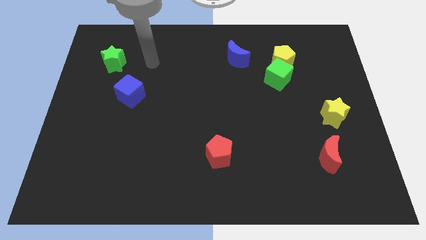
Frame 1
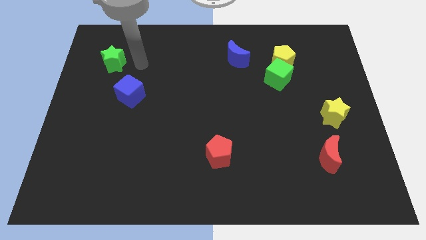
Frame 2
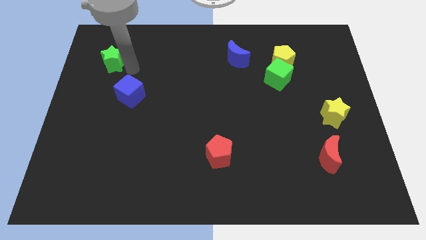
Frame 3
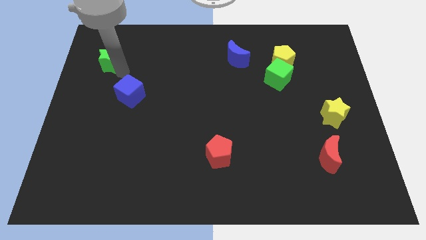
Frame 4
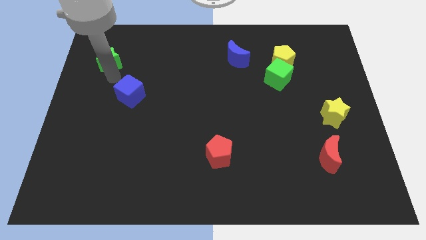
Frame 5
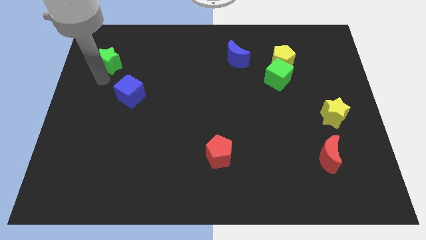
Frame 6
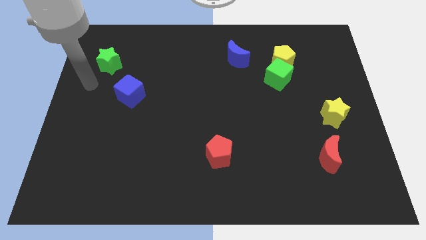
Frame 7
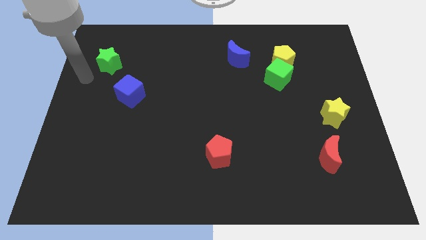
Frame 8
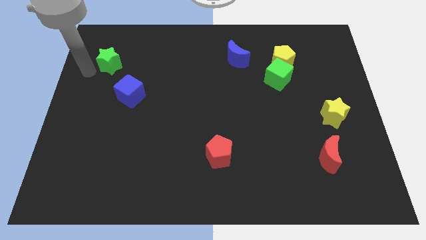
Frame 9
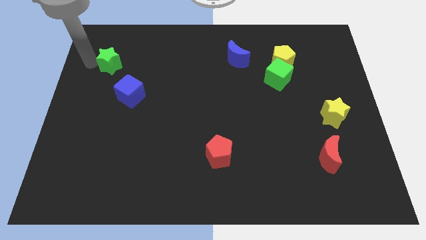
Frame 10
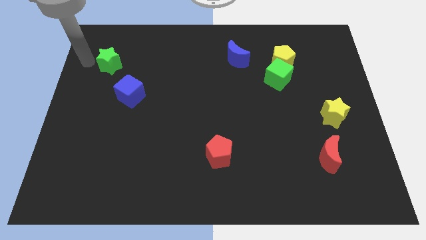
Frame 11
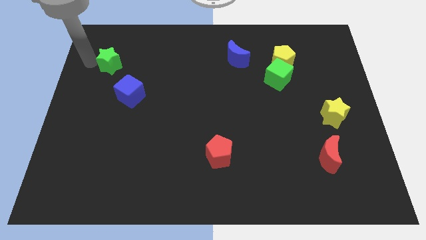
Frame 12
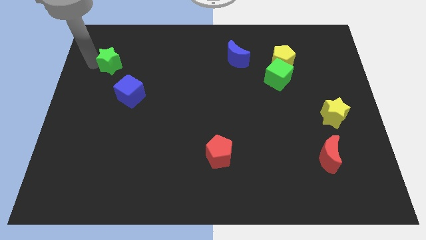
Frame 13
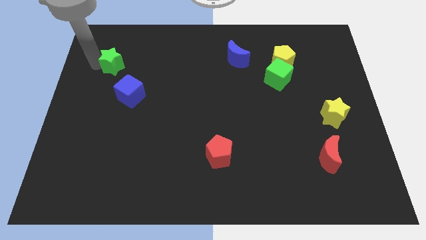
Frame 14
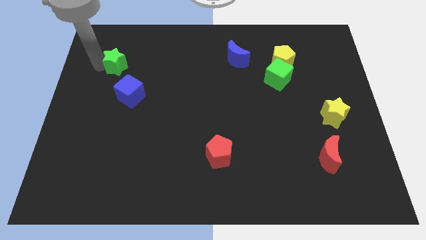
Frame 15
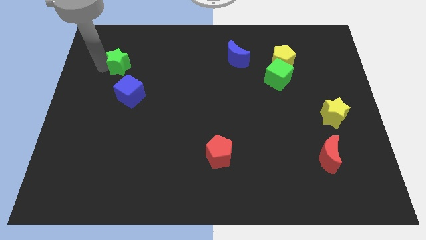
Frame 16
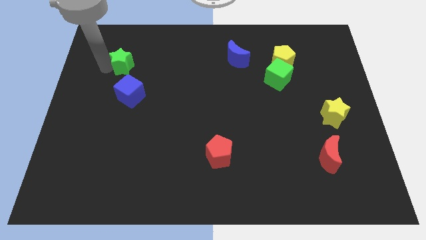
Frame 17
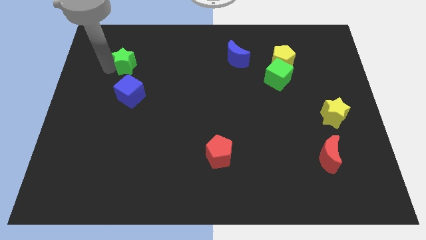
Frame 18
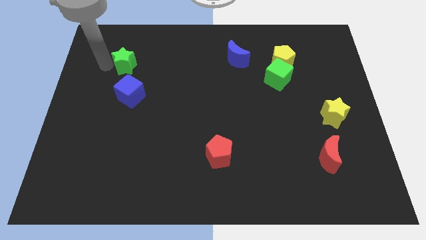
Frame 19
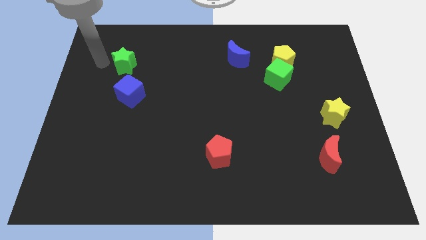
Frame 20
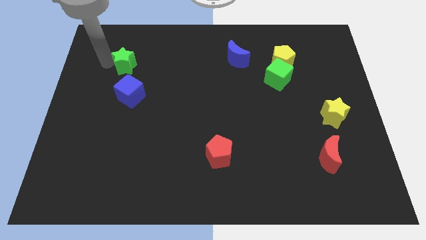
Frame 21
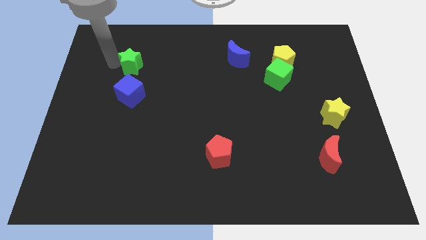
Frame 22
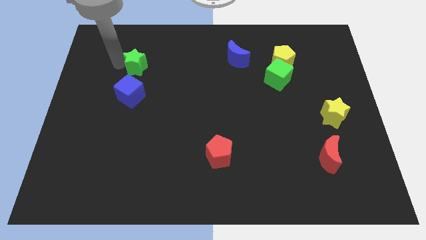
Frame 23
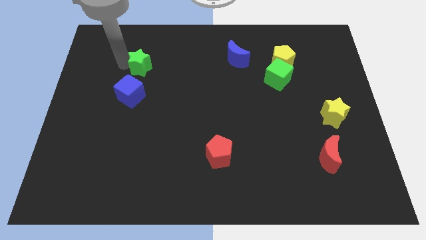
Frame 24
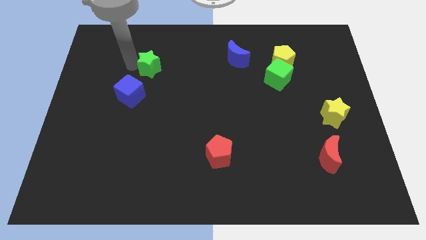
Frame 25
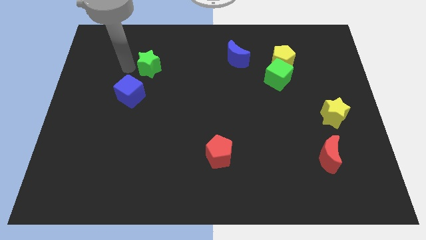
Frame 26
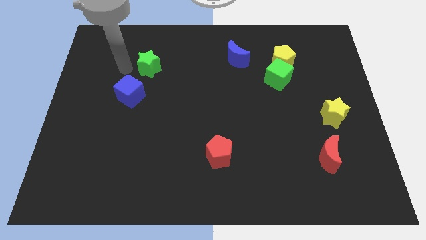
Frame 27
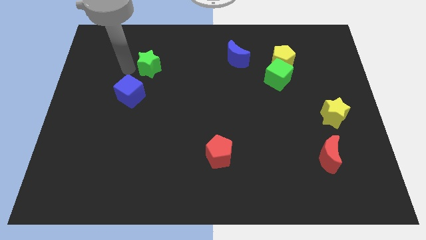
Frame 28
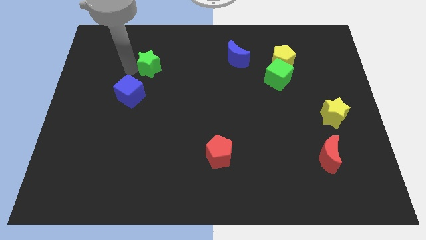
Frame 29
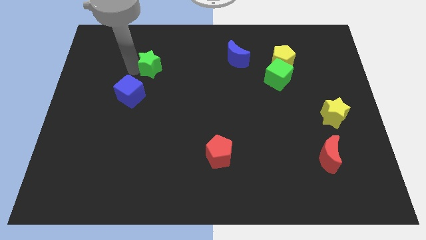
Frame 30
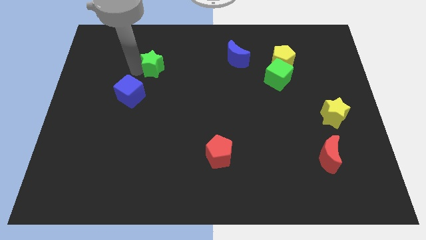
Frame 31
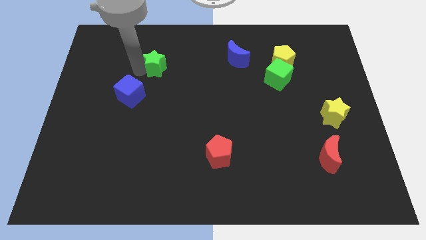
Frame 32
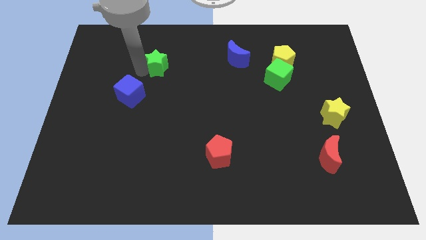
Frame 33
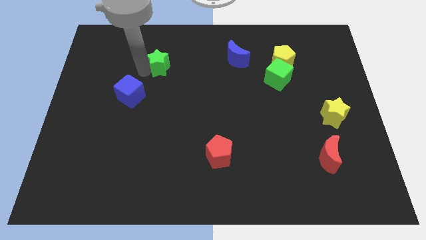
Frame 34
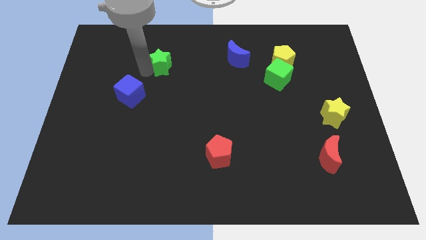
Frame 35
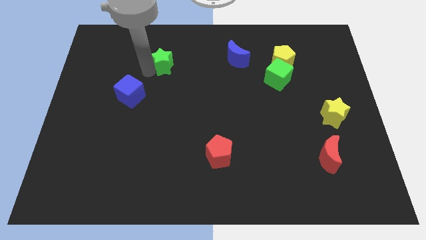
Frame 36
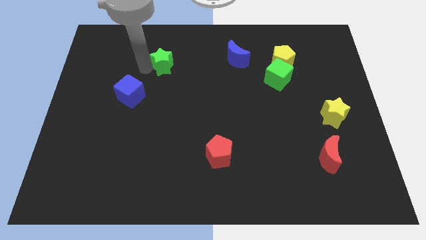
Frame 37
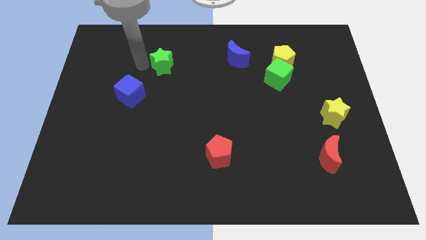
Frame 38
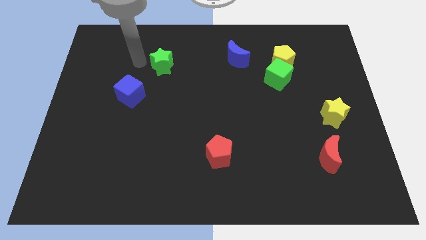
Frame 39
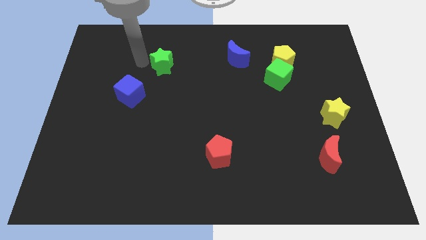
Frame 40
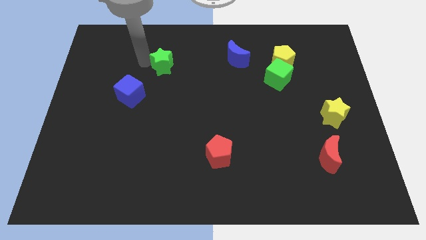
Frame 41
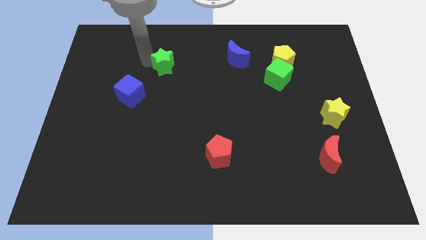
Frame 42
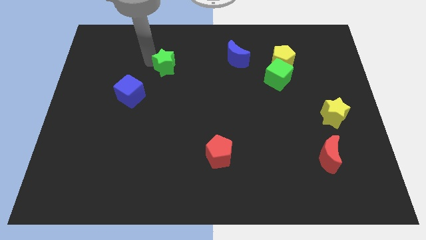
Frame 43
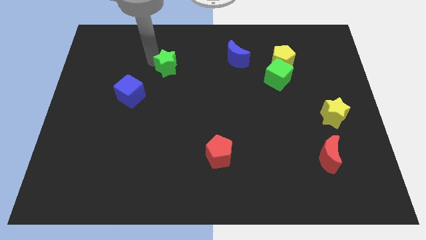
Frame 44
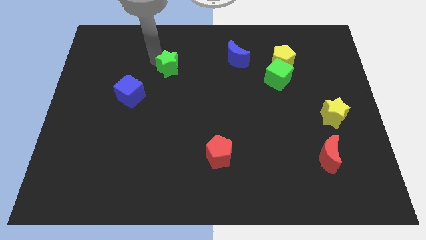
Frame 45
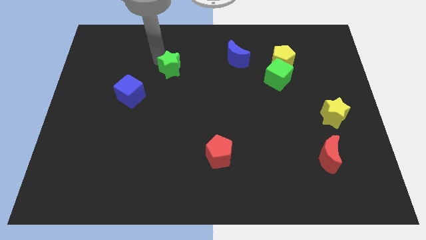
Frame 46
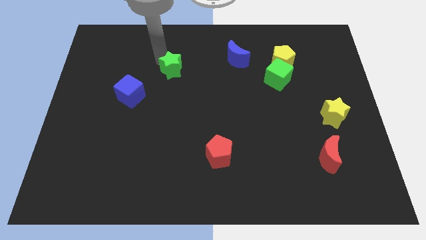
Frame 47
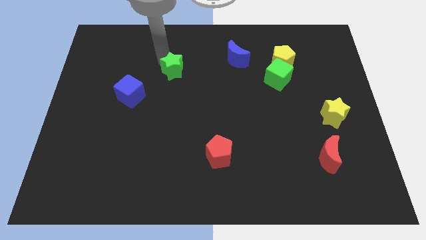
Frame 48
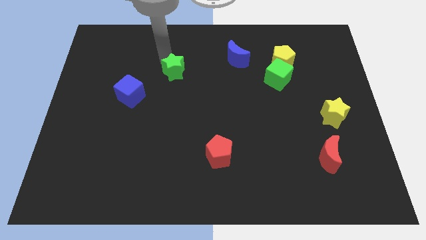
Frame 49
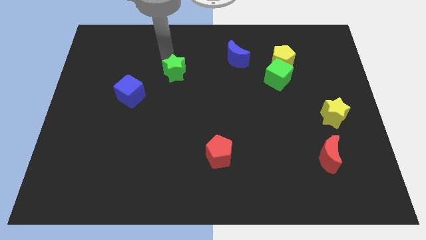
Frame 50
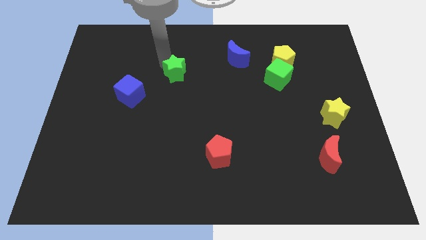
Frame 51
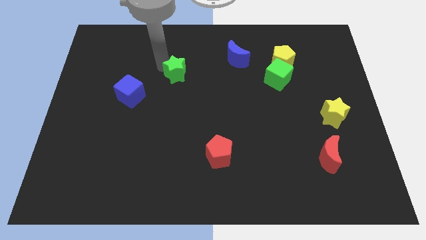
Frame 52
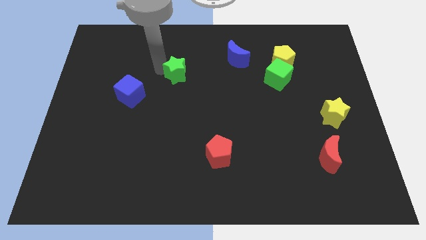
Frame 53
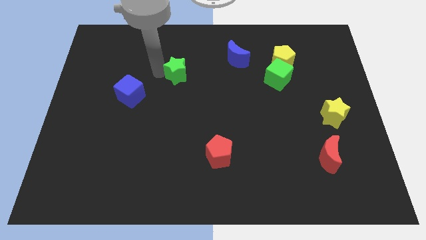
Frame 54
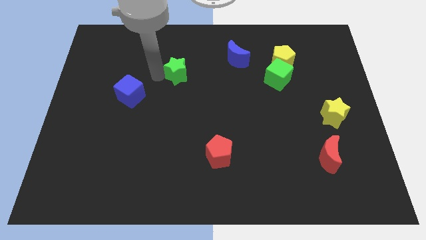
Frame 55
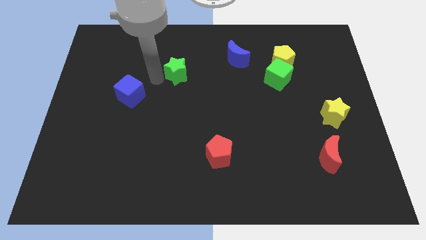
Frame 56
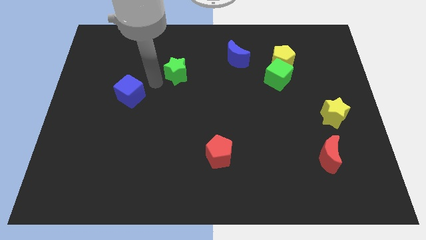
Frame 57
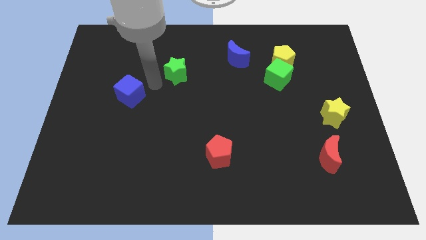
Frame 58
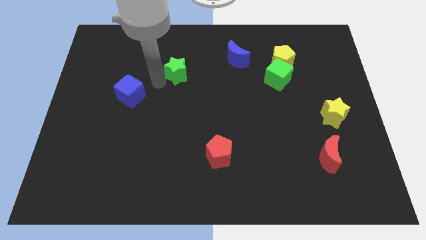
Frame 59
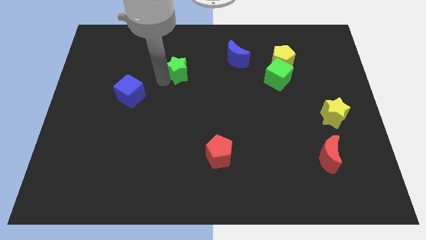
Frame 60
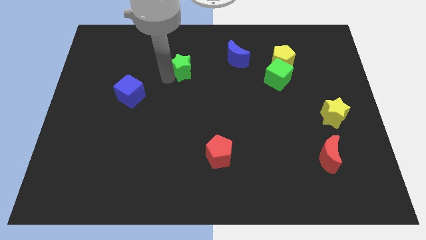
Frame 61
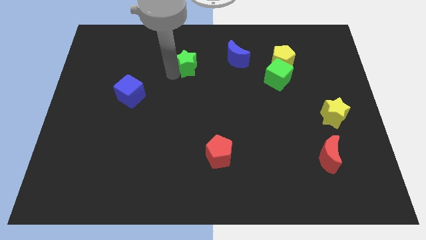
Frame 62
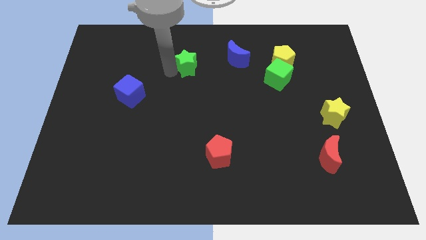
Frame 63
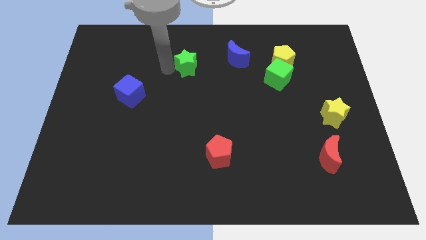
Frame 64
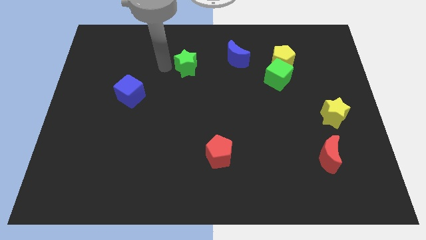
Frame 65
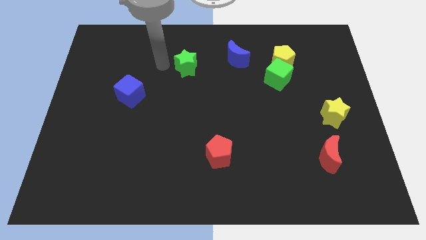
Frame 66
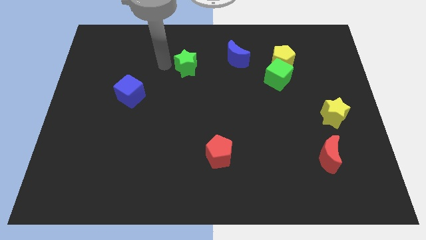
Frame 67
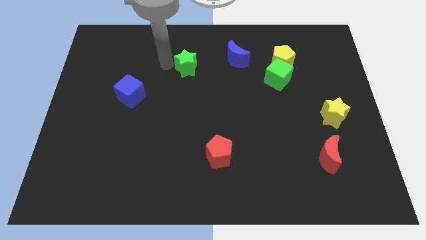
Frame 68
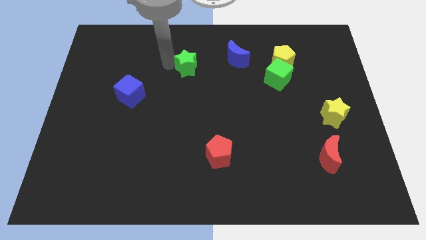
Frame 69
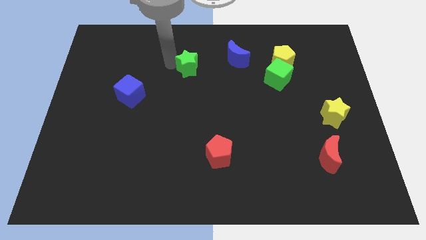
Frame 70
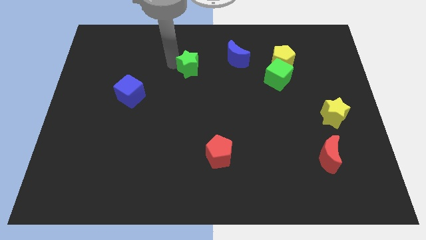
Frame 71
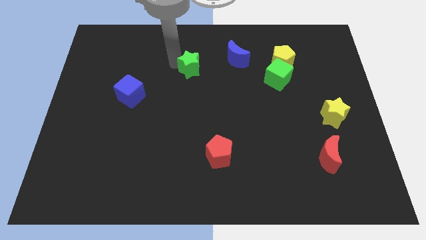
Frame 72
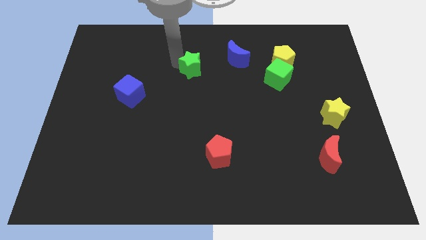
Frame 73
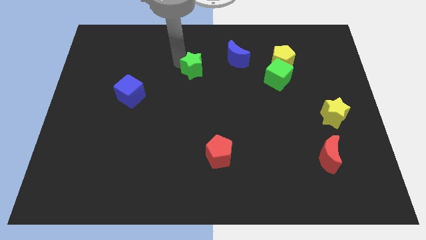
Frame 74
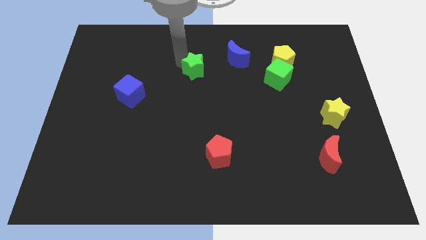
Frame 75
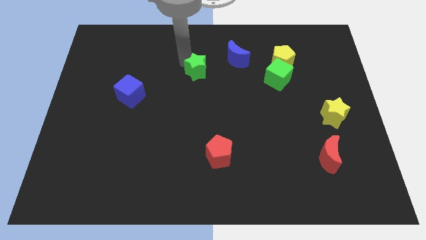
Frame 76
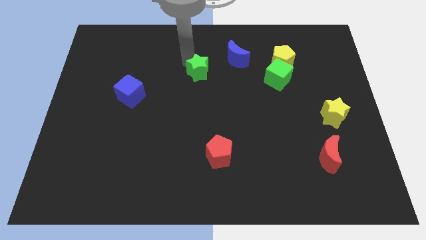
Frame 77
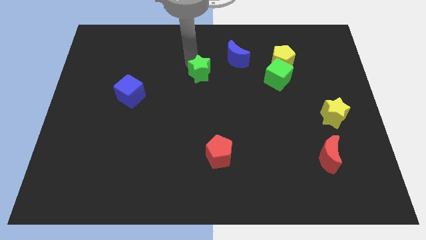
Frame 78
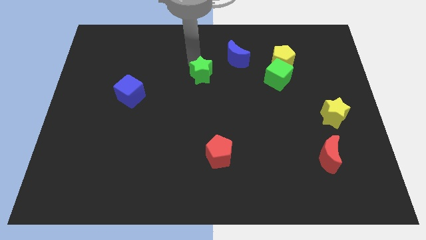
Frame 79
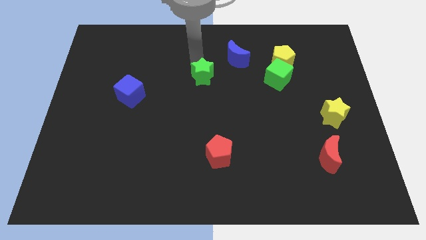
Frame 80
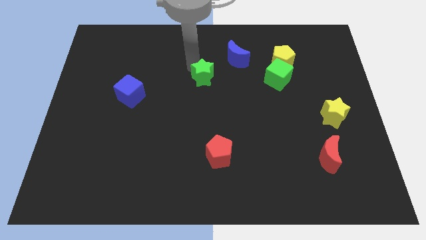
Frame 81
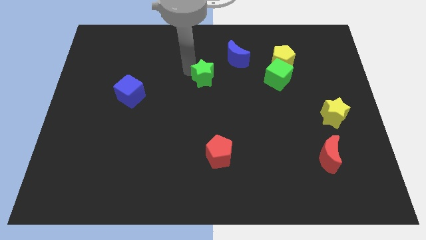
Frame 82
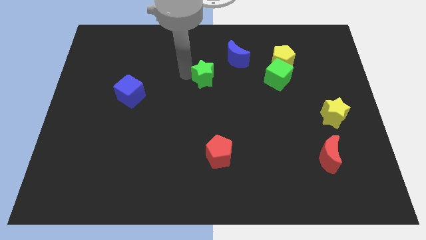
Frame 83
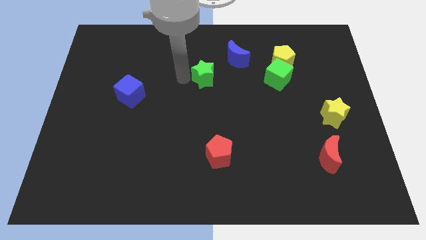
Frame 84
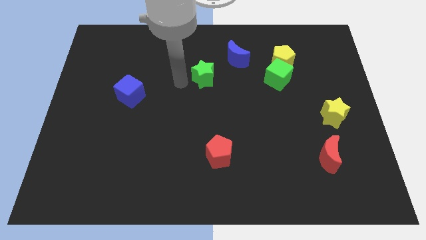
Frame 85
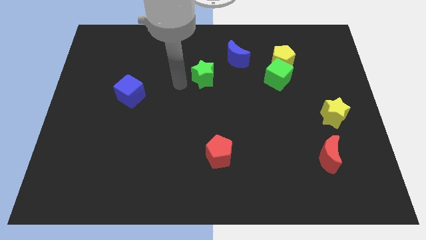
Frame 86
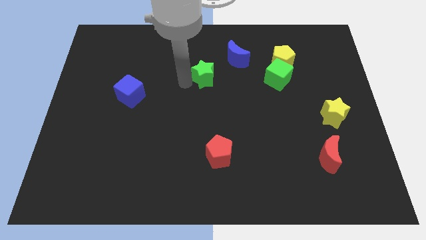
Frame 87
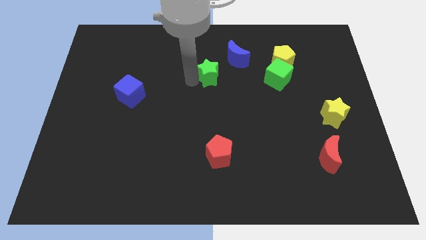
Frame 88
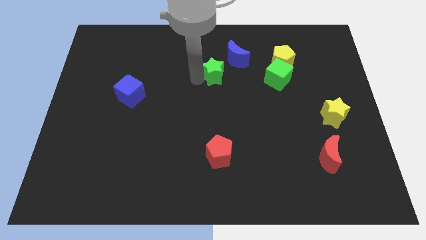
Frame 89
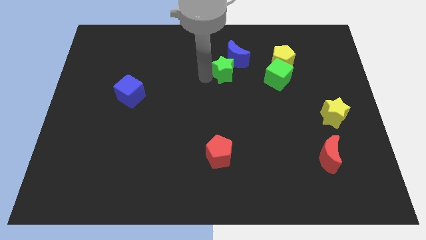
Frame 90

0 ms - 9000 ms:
move the green star to the left side of the yellow pentagon
